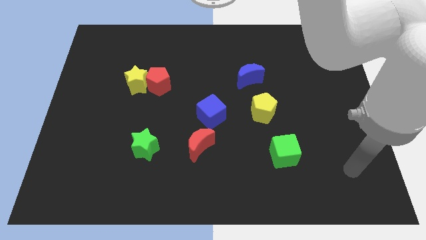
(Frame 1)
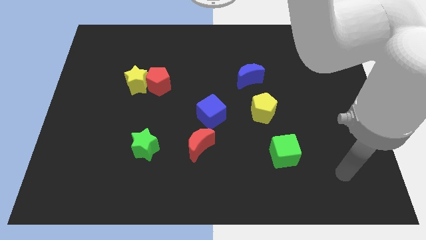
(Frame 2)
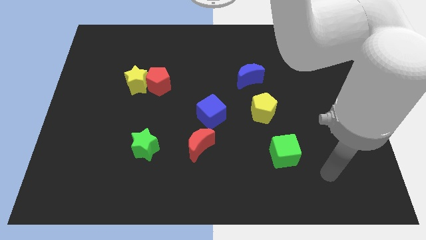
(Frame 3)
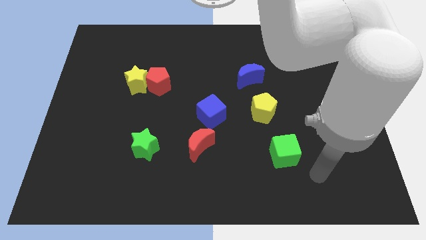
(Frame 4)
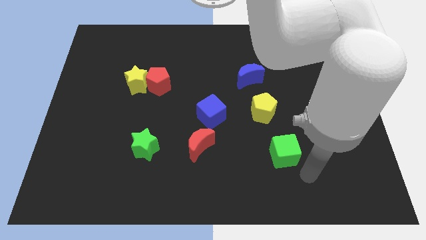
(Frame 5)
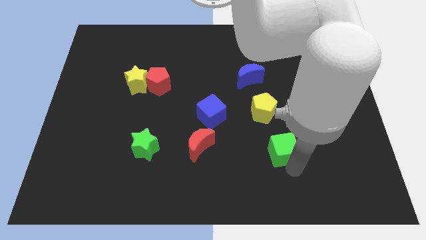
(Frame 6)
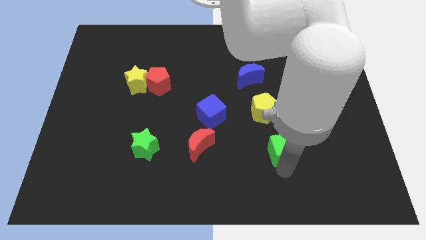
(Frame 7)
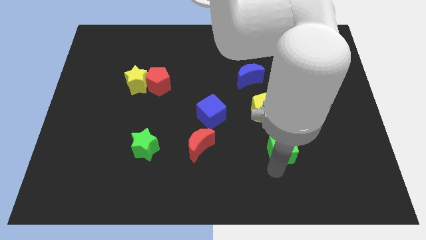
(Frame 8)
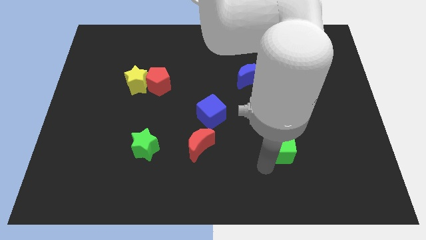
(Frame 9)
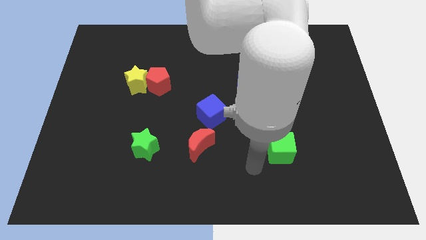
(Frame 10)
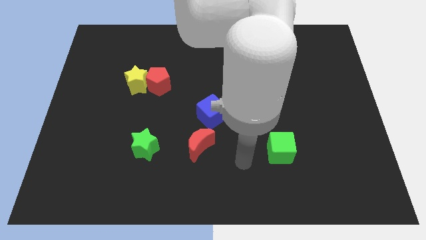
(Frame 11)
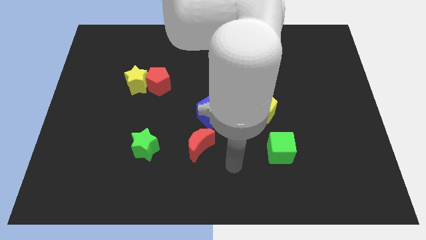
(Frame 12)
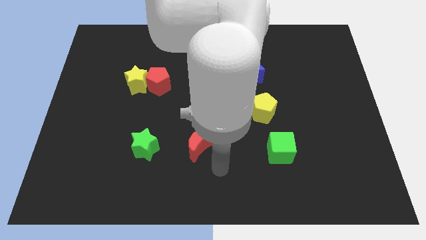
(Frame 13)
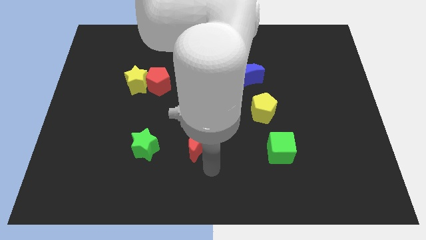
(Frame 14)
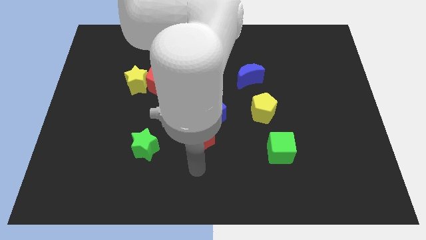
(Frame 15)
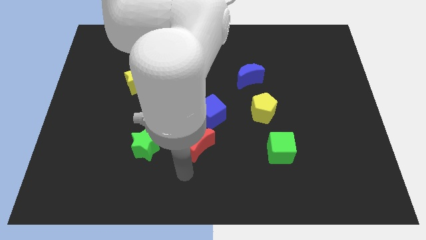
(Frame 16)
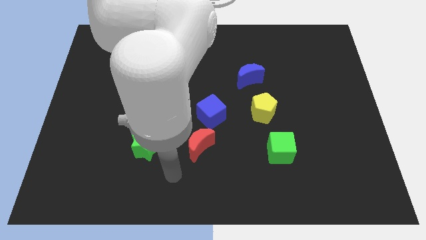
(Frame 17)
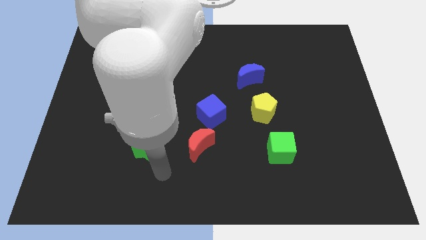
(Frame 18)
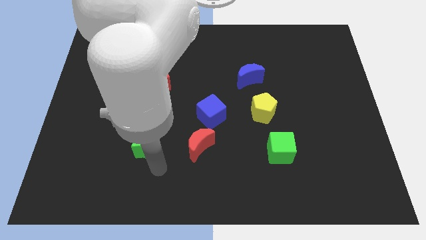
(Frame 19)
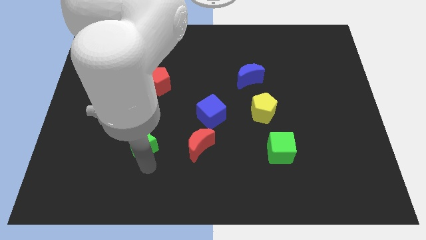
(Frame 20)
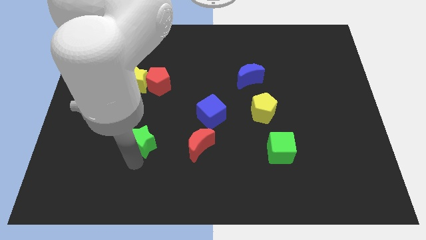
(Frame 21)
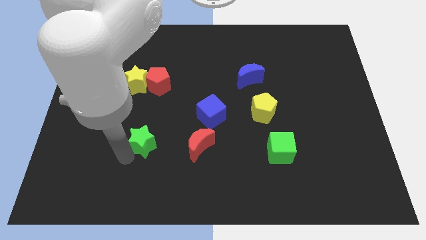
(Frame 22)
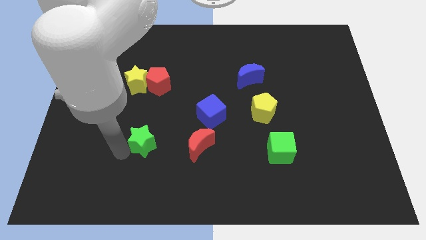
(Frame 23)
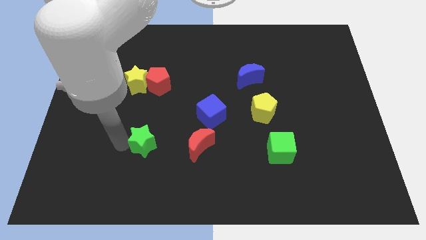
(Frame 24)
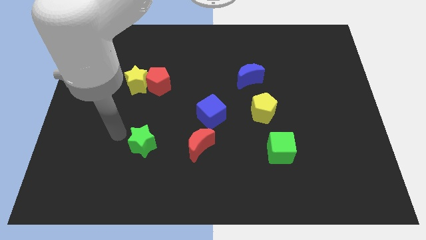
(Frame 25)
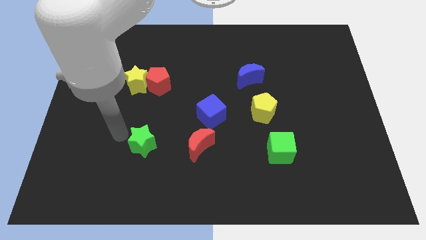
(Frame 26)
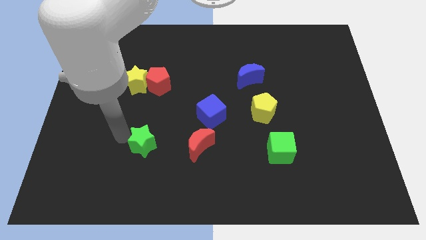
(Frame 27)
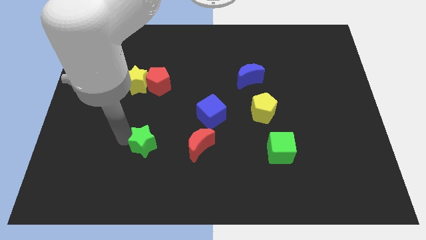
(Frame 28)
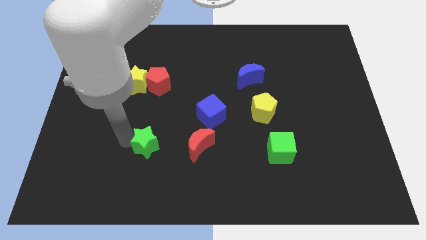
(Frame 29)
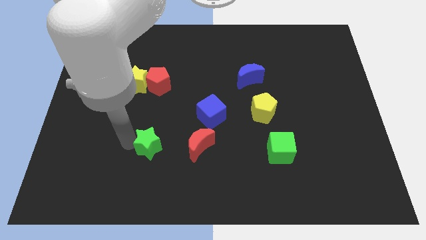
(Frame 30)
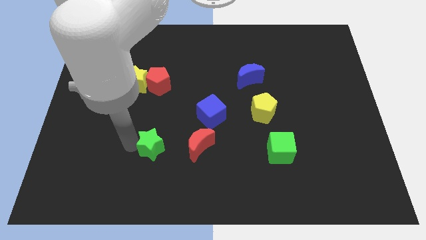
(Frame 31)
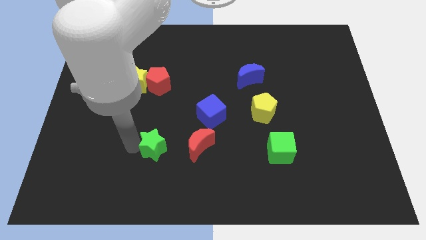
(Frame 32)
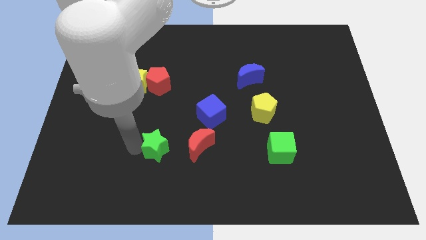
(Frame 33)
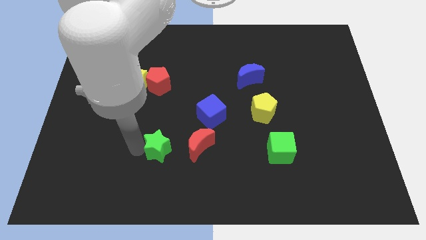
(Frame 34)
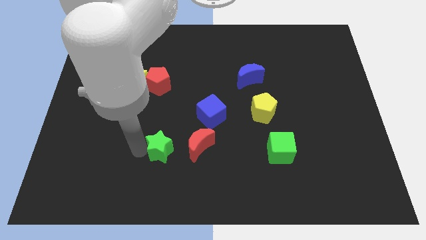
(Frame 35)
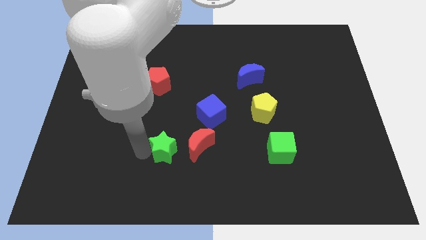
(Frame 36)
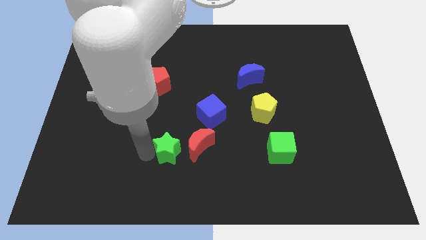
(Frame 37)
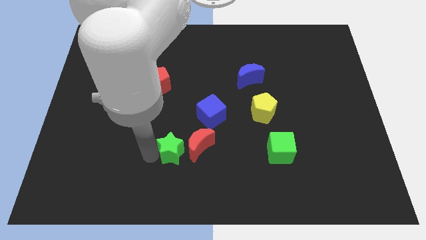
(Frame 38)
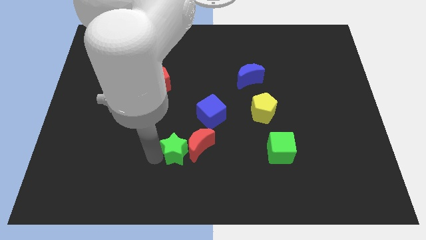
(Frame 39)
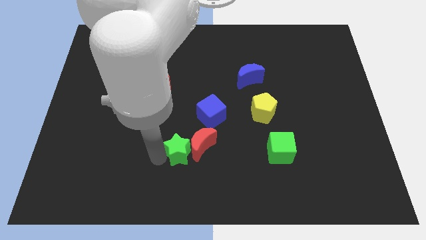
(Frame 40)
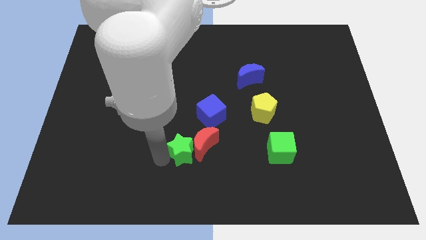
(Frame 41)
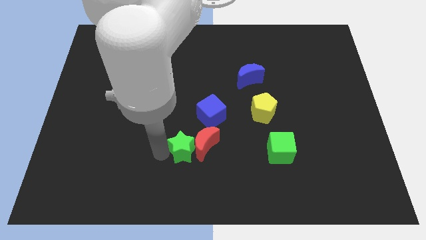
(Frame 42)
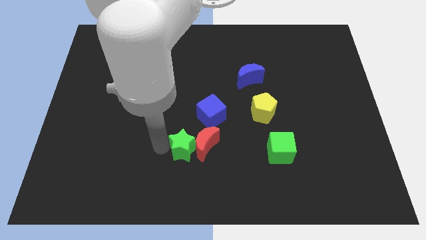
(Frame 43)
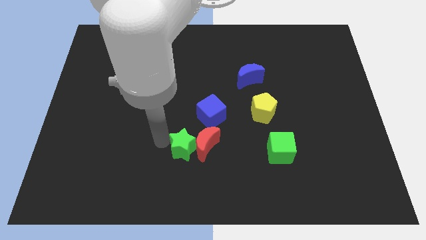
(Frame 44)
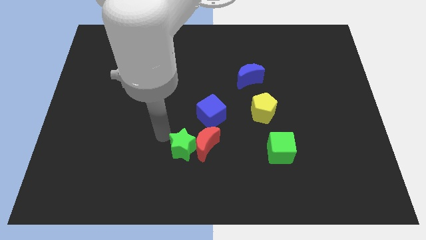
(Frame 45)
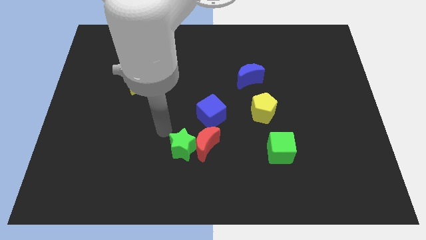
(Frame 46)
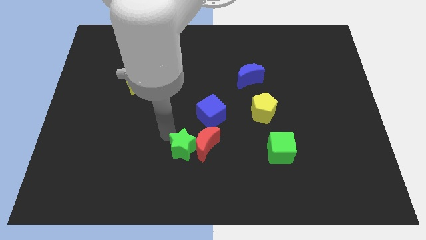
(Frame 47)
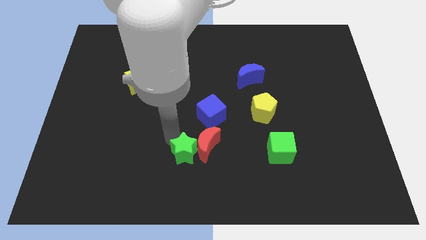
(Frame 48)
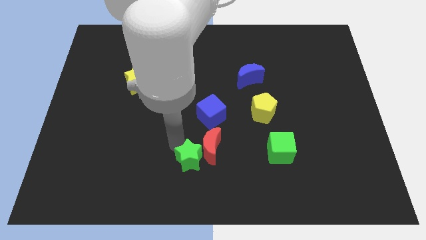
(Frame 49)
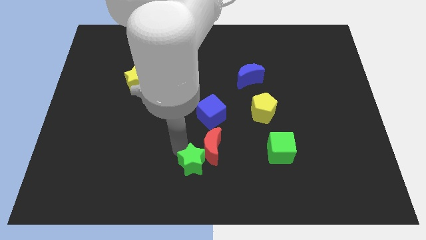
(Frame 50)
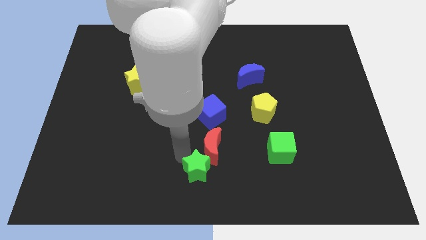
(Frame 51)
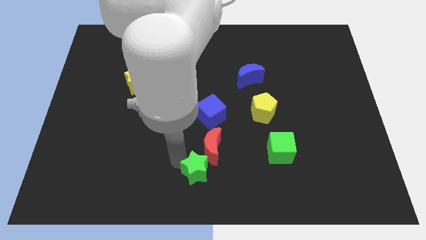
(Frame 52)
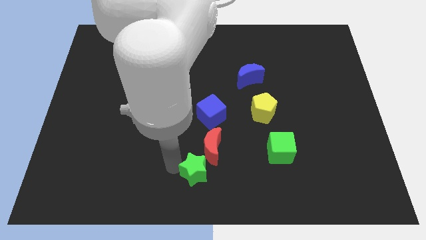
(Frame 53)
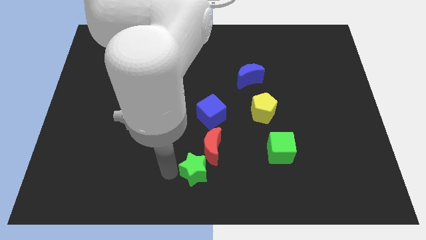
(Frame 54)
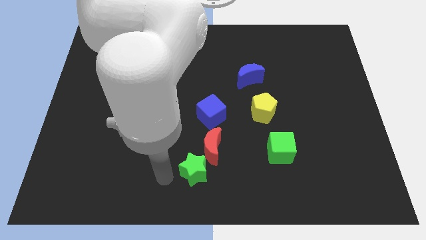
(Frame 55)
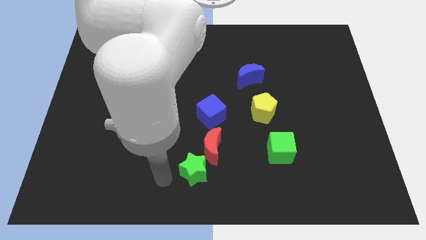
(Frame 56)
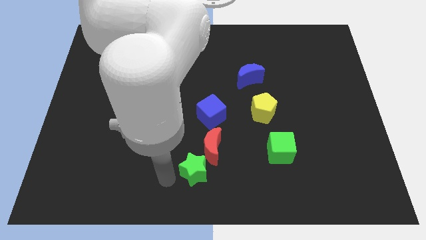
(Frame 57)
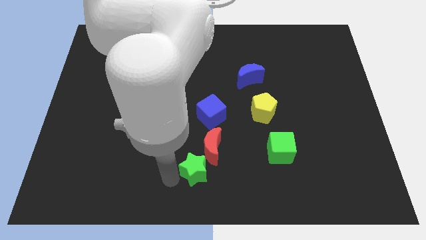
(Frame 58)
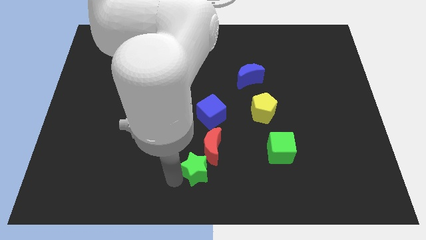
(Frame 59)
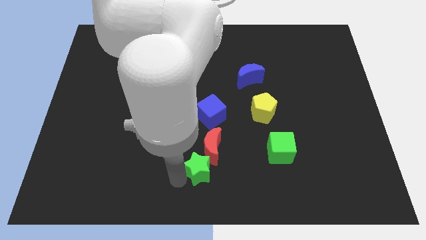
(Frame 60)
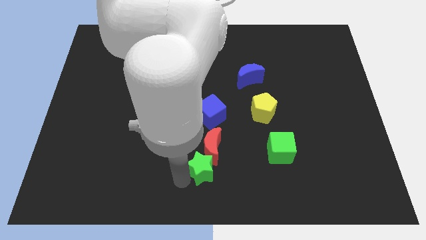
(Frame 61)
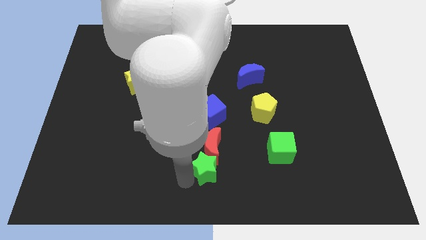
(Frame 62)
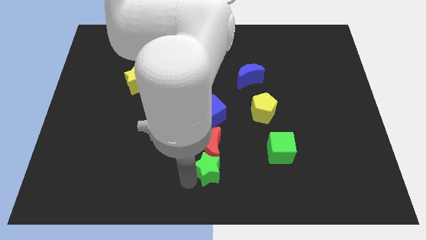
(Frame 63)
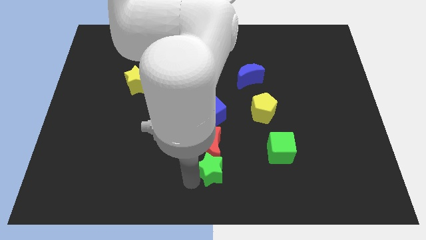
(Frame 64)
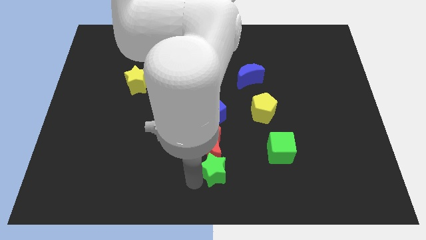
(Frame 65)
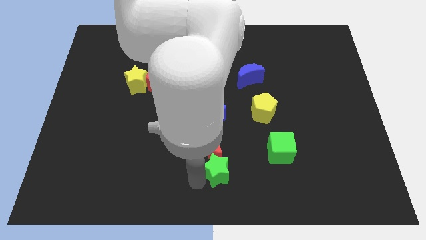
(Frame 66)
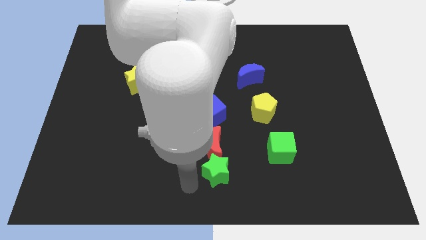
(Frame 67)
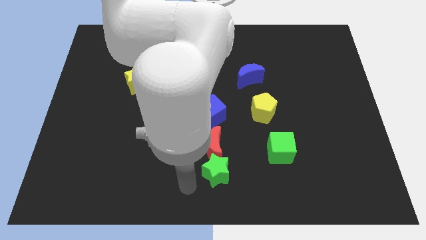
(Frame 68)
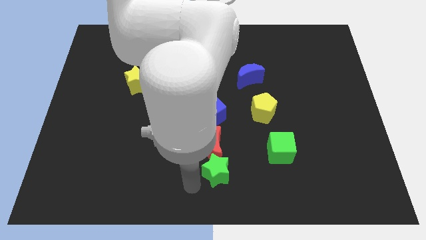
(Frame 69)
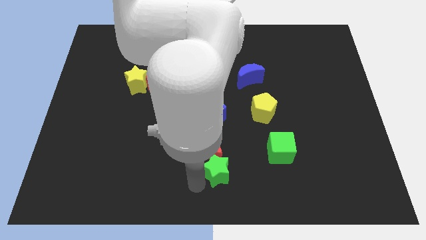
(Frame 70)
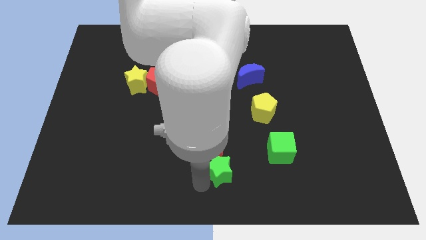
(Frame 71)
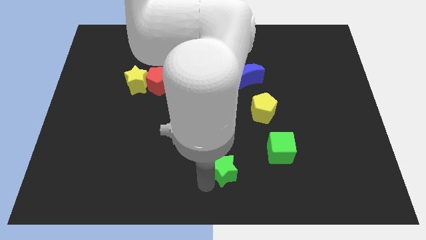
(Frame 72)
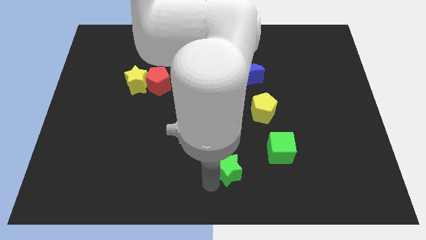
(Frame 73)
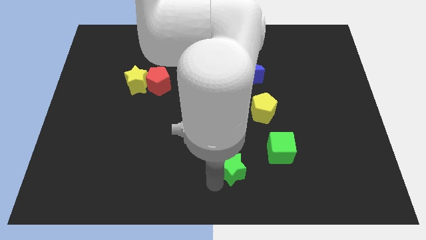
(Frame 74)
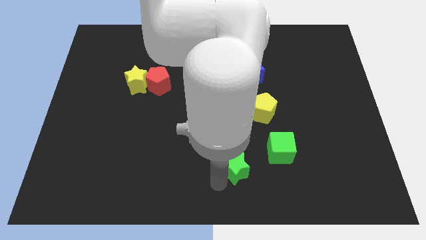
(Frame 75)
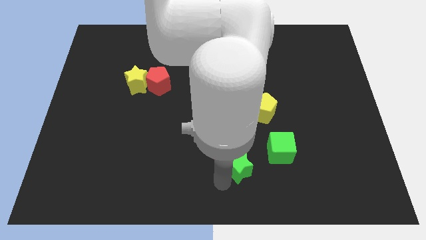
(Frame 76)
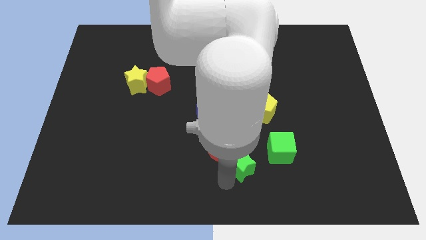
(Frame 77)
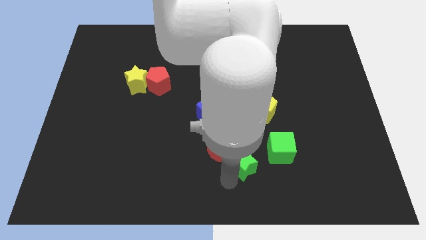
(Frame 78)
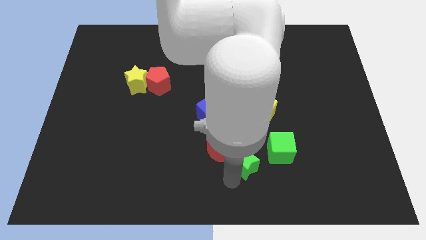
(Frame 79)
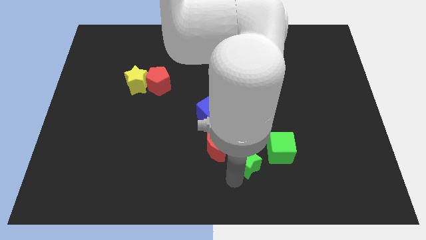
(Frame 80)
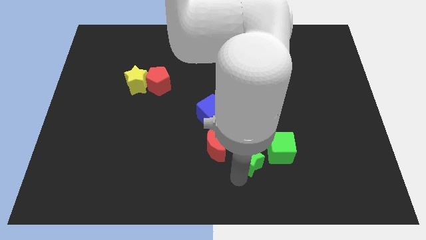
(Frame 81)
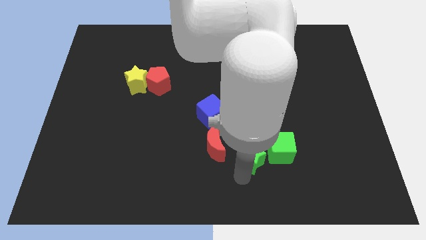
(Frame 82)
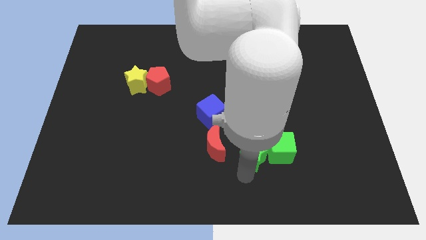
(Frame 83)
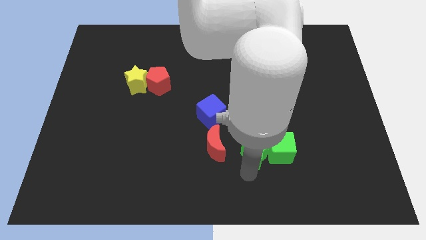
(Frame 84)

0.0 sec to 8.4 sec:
push the green star close to the green cube
